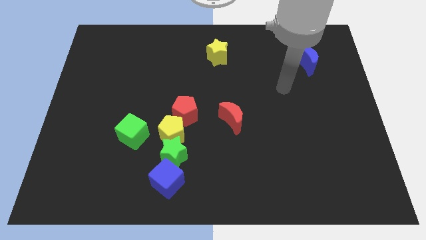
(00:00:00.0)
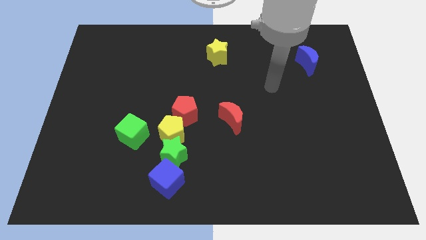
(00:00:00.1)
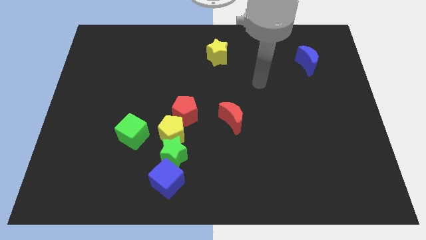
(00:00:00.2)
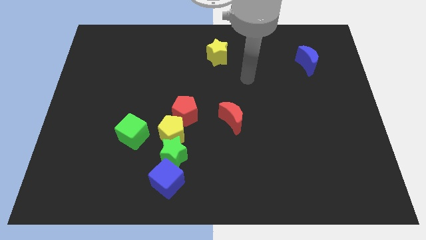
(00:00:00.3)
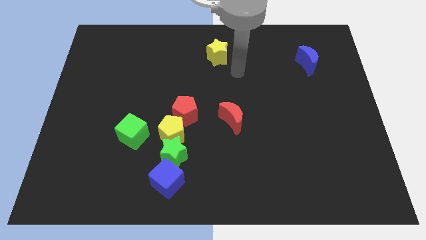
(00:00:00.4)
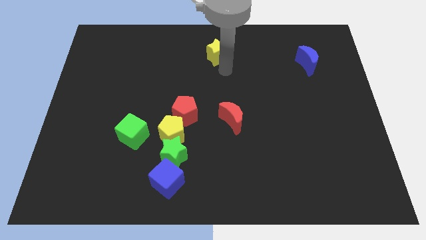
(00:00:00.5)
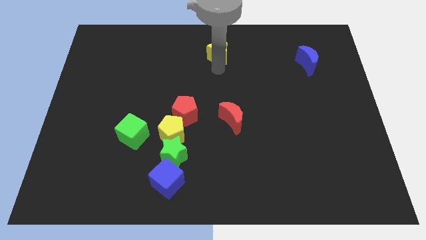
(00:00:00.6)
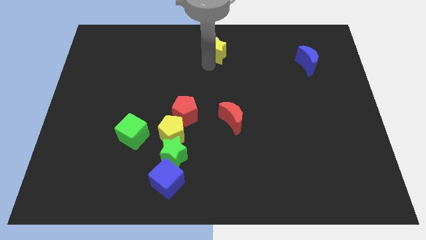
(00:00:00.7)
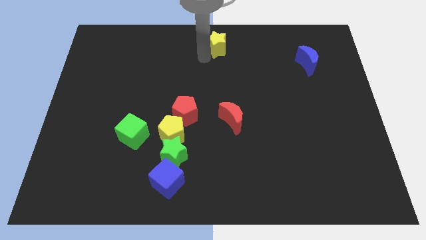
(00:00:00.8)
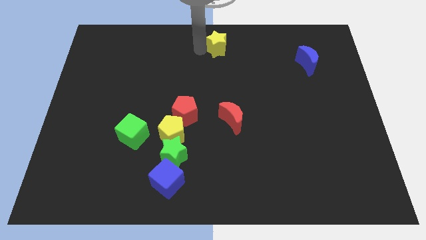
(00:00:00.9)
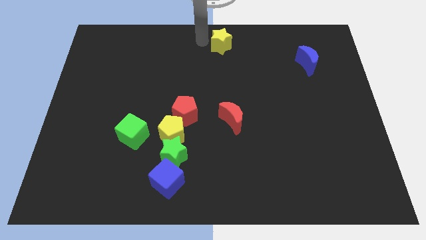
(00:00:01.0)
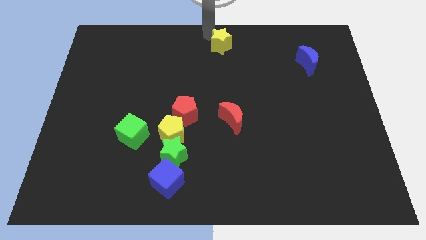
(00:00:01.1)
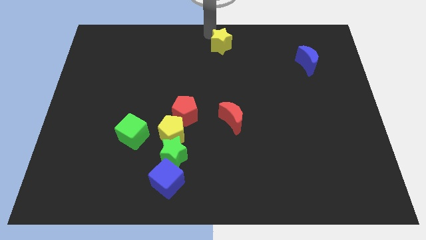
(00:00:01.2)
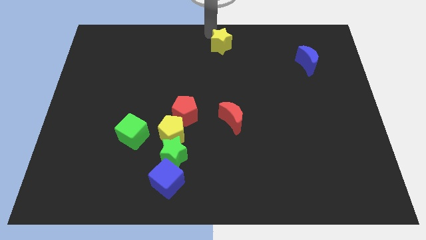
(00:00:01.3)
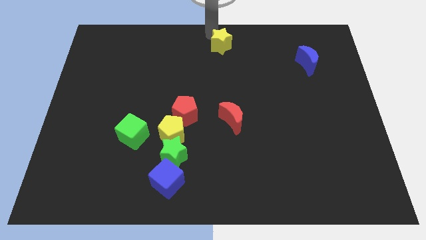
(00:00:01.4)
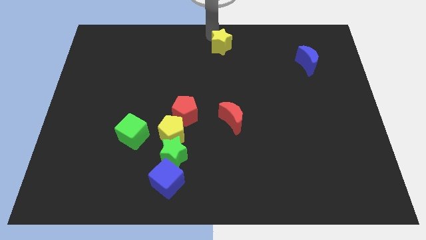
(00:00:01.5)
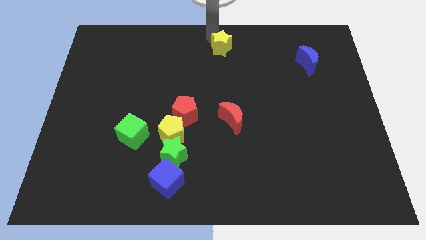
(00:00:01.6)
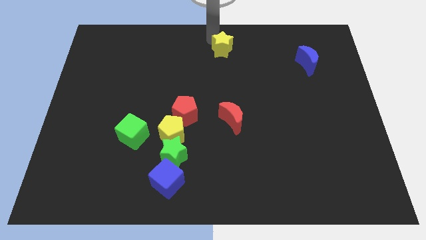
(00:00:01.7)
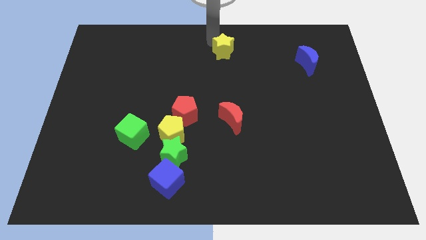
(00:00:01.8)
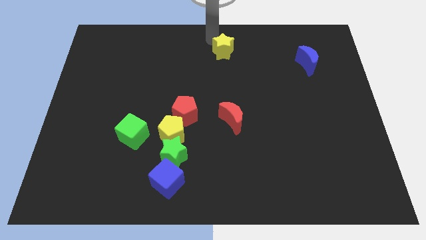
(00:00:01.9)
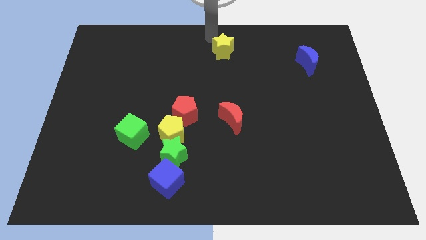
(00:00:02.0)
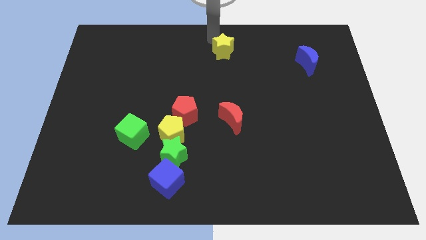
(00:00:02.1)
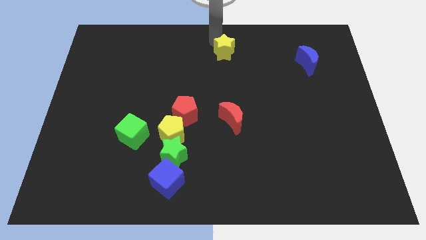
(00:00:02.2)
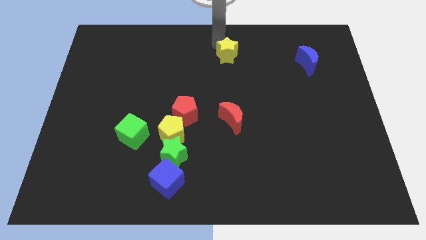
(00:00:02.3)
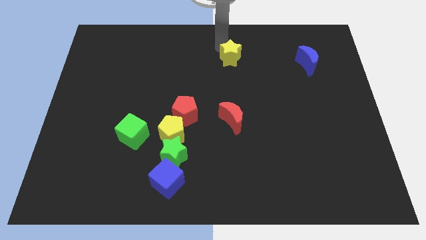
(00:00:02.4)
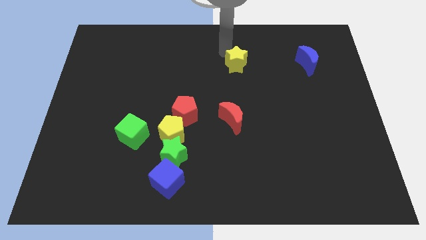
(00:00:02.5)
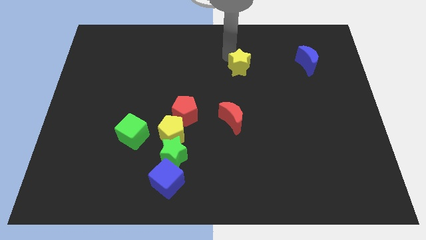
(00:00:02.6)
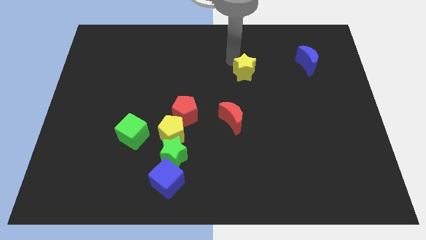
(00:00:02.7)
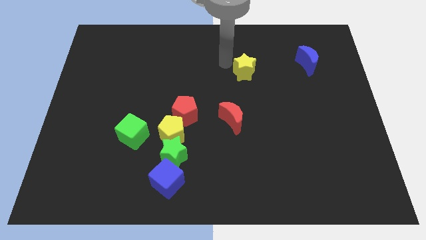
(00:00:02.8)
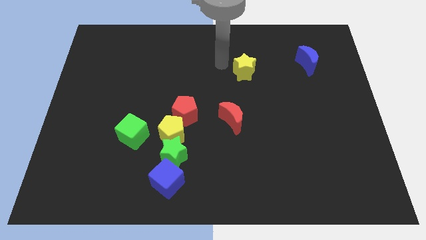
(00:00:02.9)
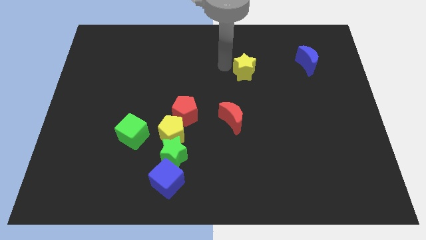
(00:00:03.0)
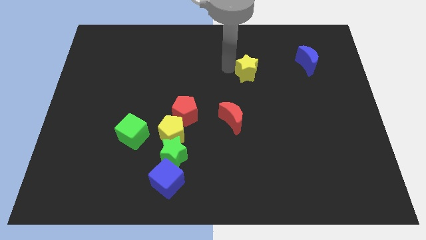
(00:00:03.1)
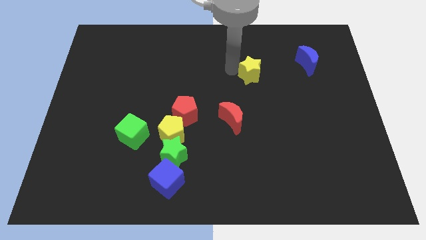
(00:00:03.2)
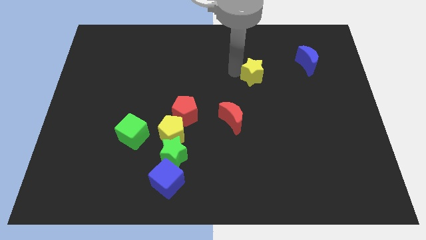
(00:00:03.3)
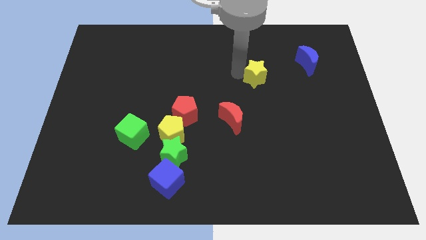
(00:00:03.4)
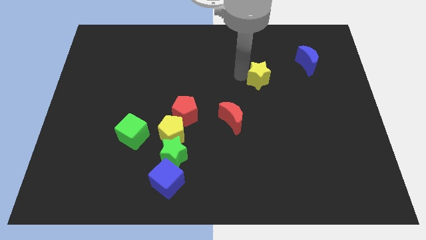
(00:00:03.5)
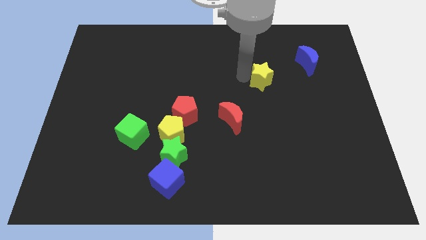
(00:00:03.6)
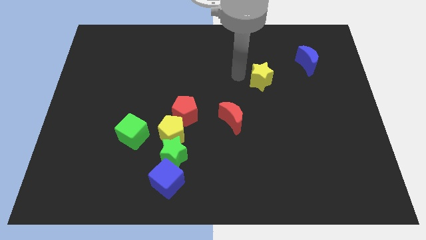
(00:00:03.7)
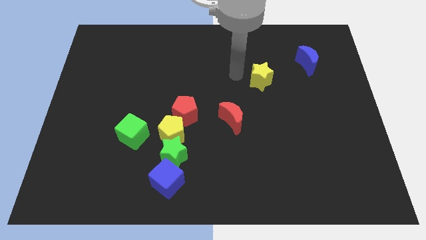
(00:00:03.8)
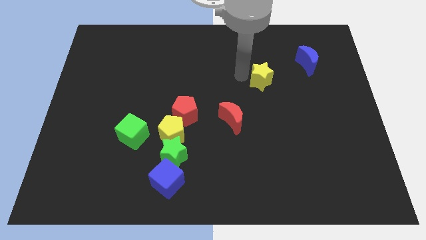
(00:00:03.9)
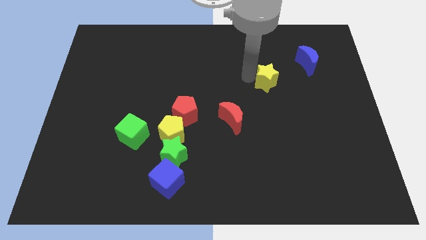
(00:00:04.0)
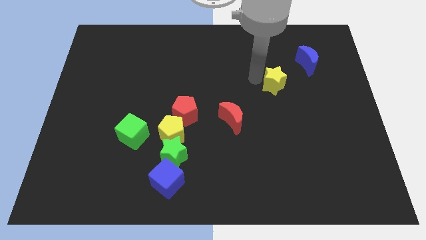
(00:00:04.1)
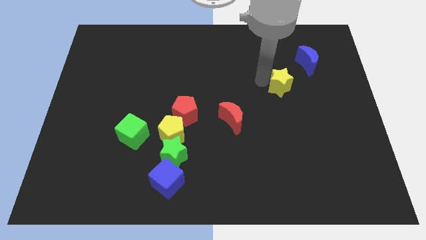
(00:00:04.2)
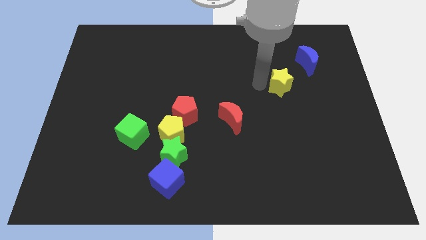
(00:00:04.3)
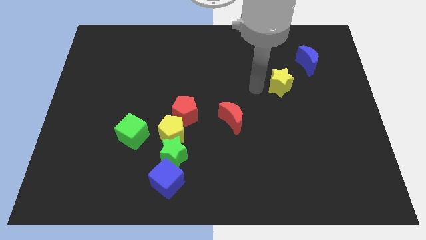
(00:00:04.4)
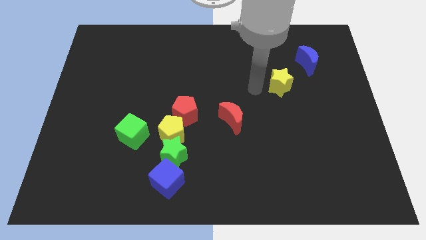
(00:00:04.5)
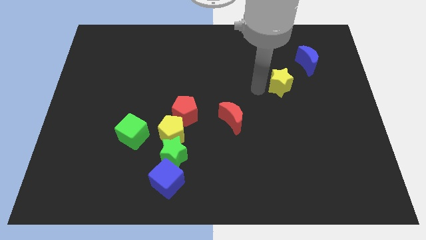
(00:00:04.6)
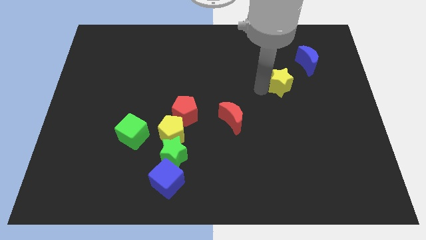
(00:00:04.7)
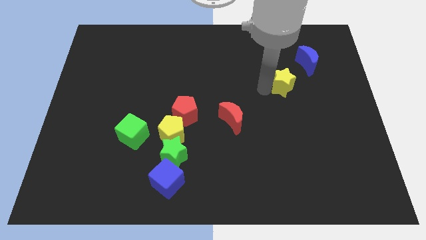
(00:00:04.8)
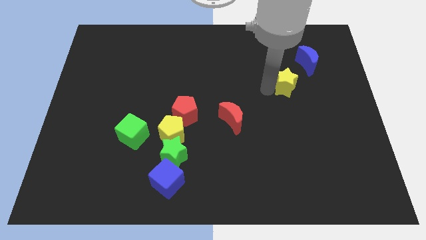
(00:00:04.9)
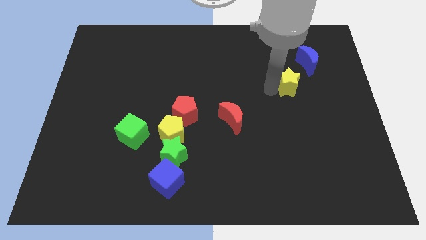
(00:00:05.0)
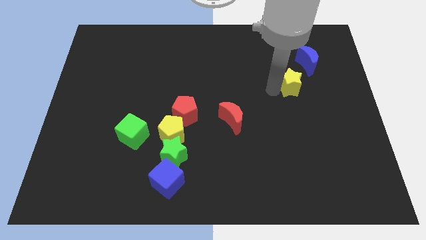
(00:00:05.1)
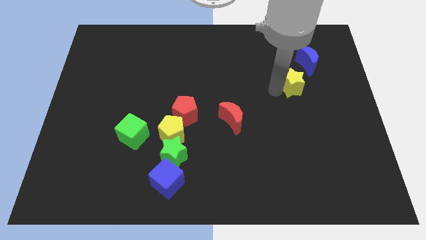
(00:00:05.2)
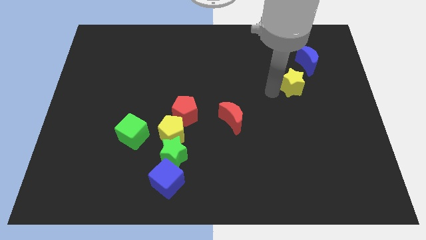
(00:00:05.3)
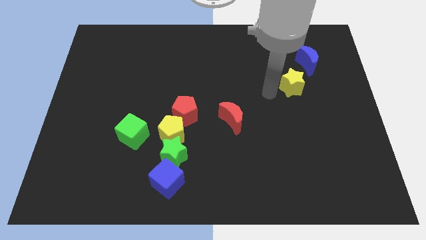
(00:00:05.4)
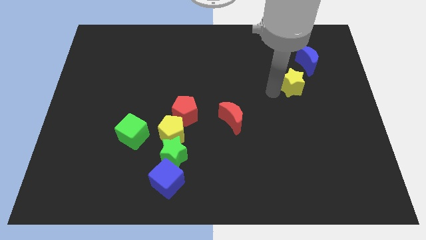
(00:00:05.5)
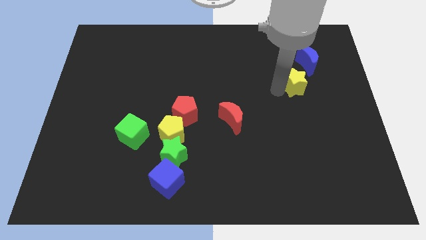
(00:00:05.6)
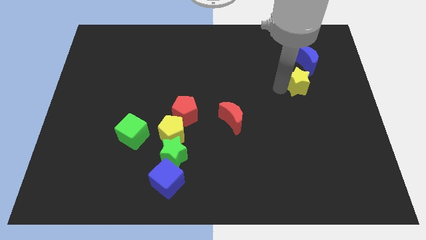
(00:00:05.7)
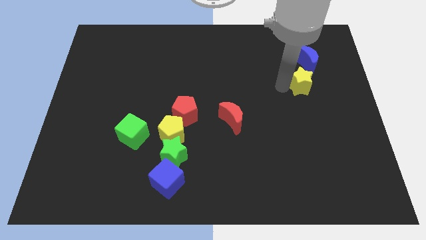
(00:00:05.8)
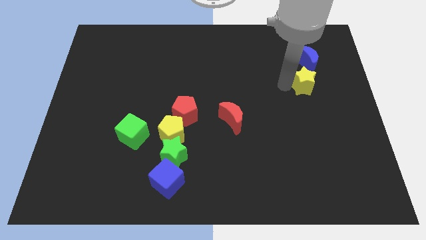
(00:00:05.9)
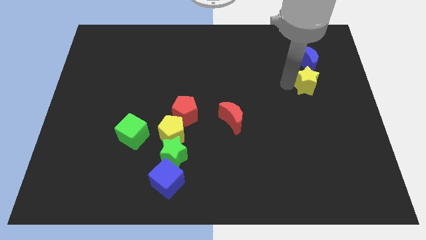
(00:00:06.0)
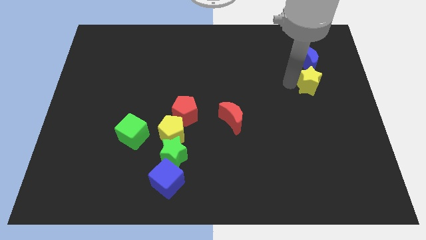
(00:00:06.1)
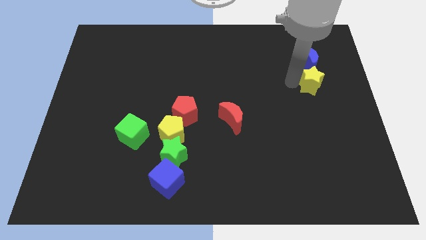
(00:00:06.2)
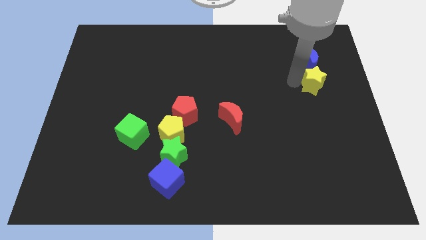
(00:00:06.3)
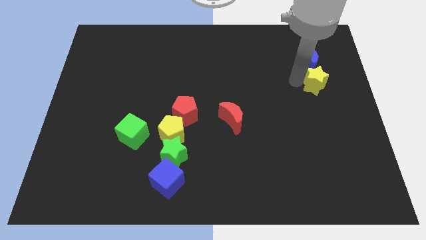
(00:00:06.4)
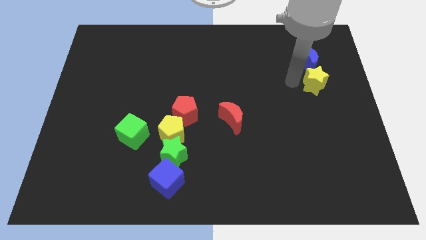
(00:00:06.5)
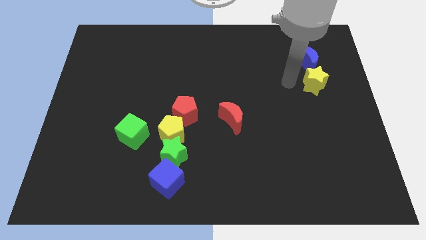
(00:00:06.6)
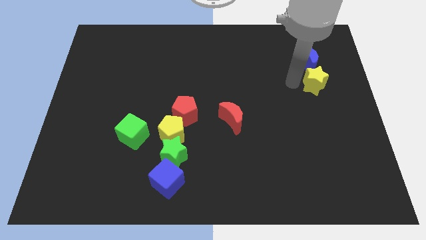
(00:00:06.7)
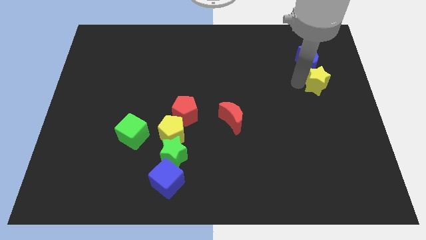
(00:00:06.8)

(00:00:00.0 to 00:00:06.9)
put the yellow star to the center right
